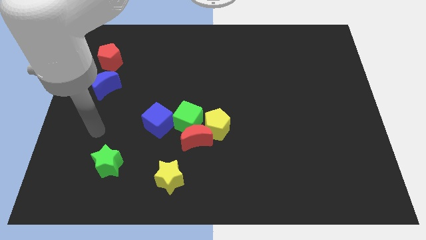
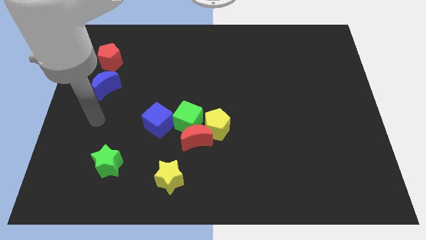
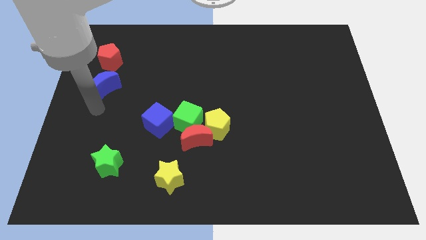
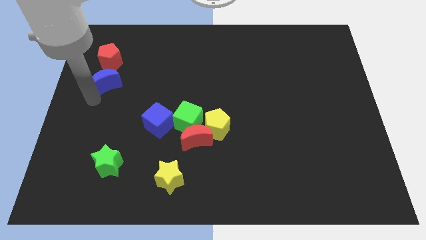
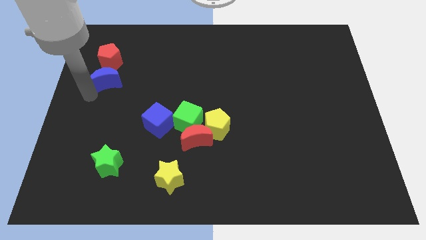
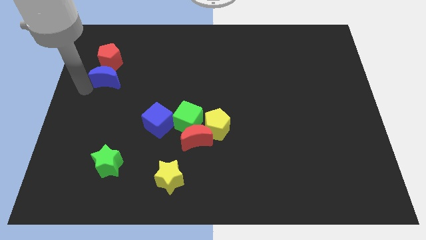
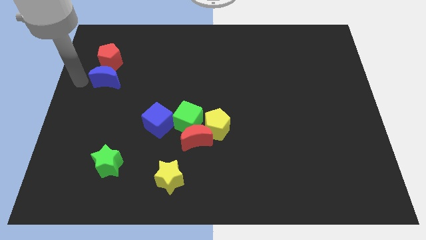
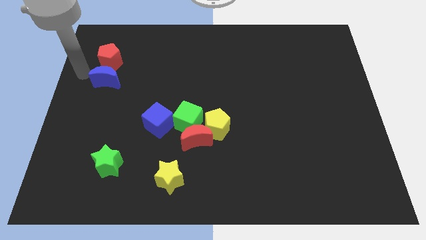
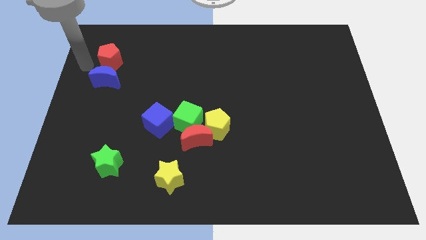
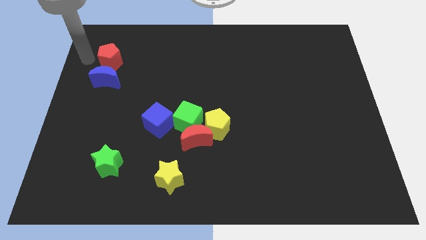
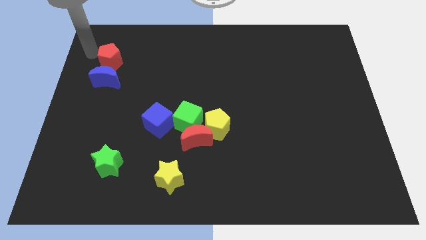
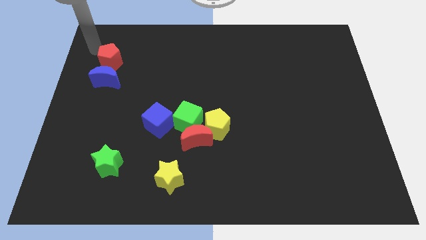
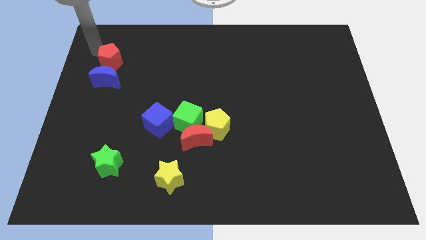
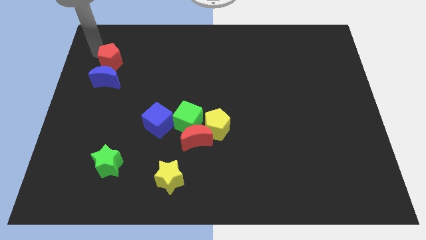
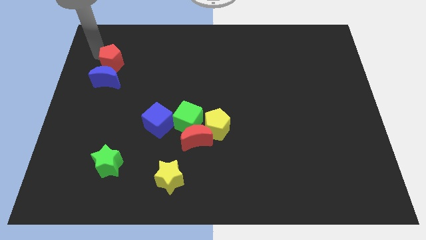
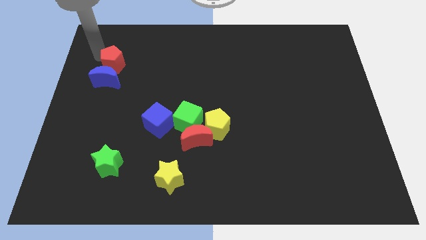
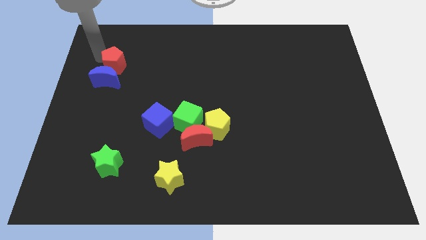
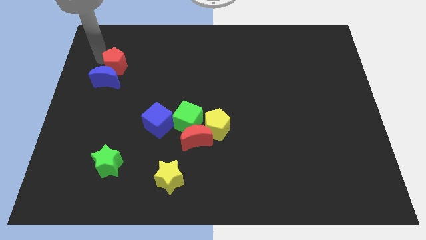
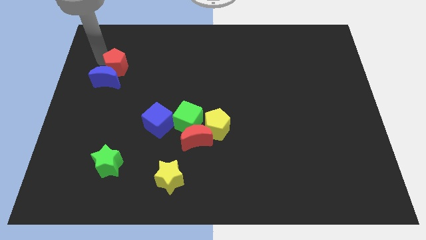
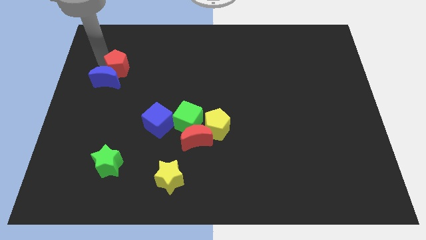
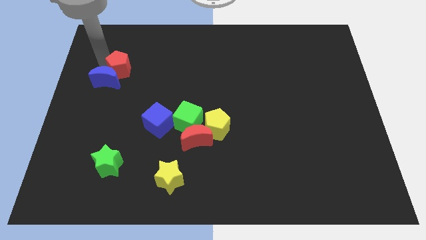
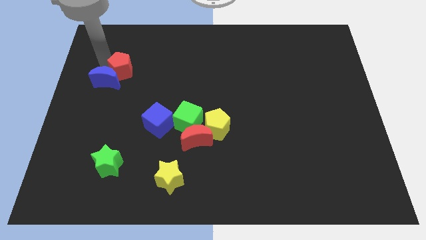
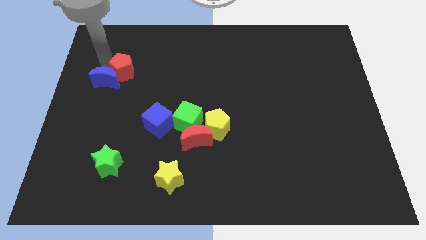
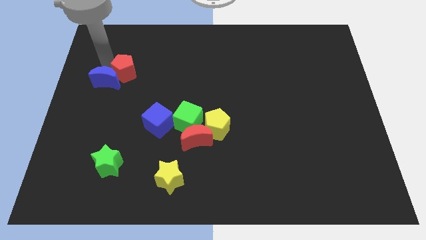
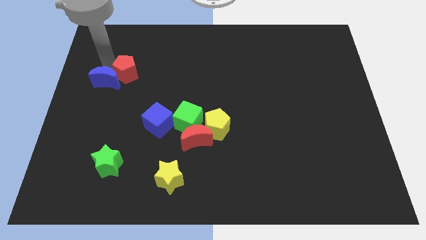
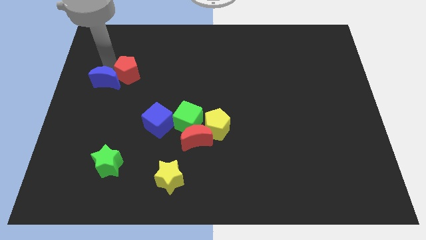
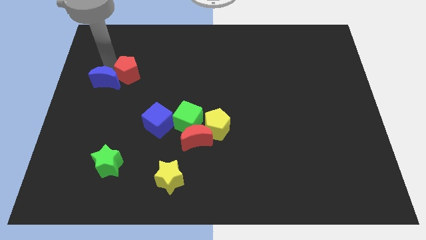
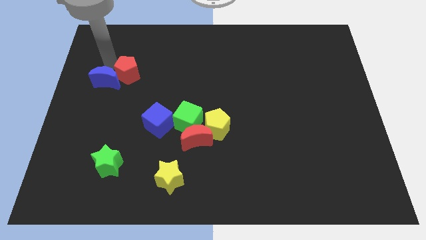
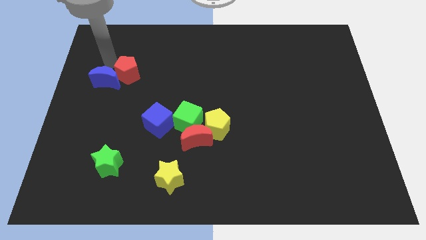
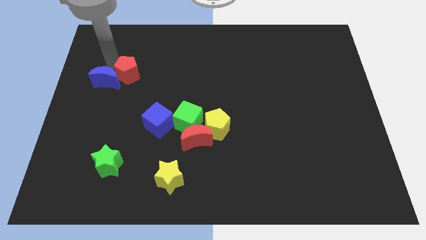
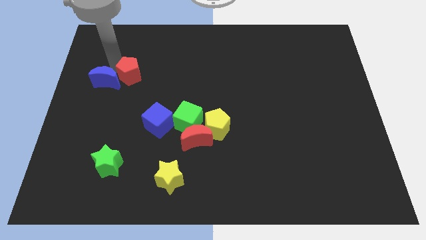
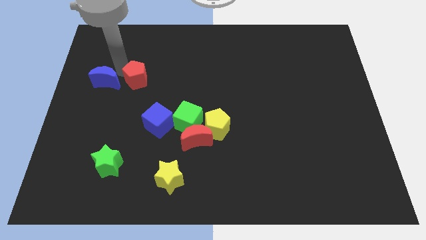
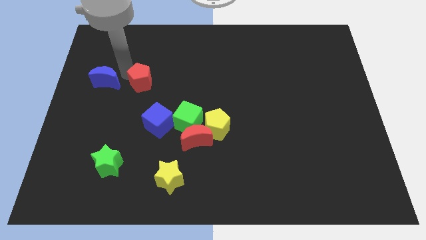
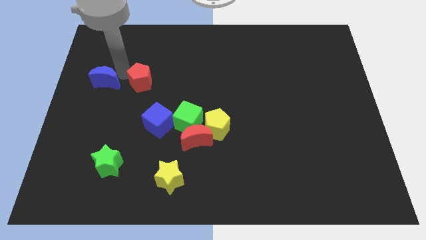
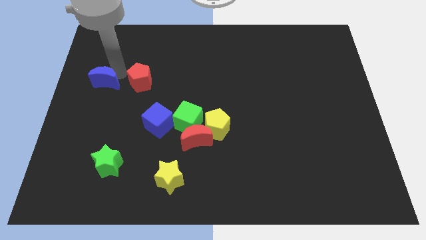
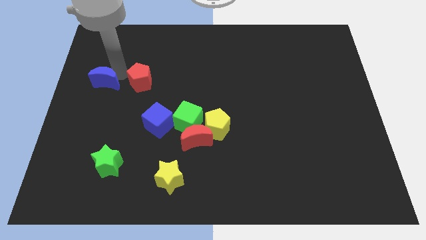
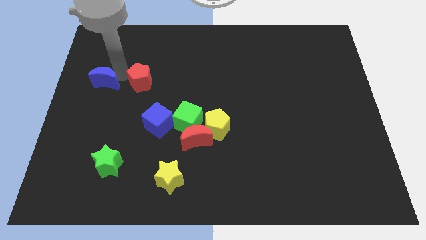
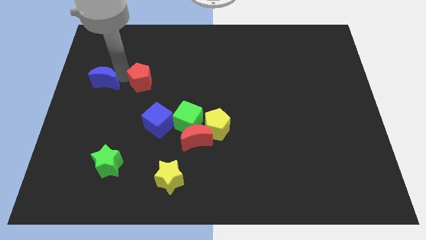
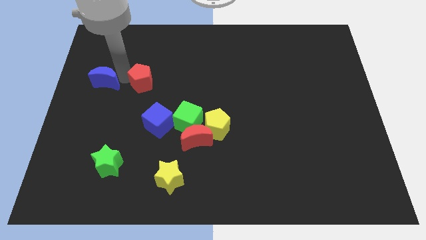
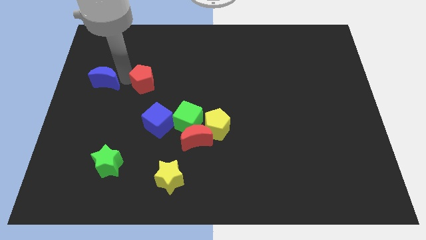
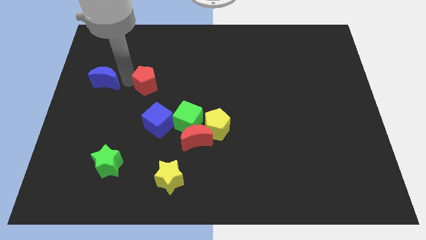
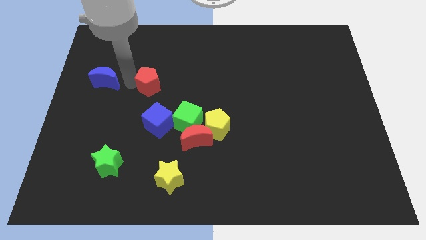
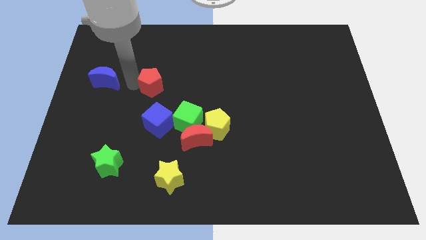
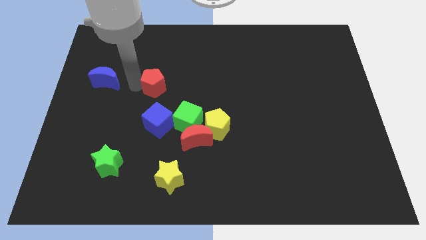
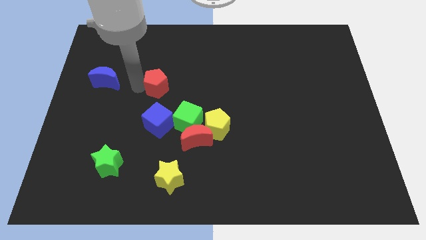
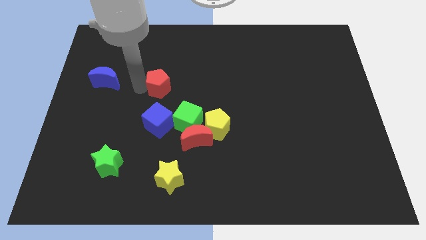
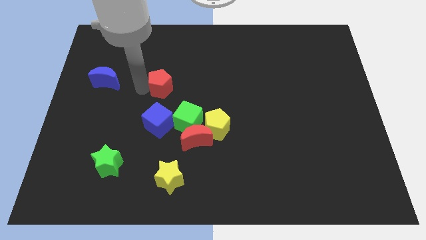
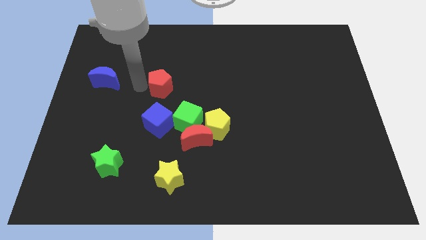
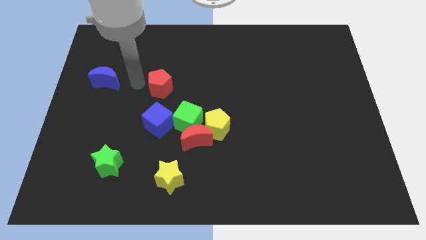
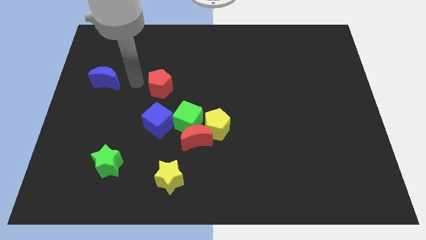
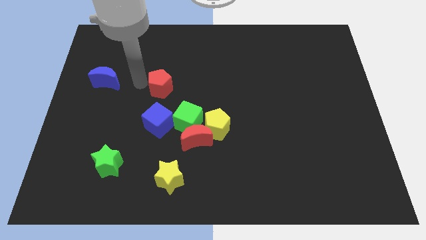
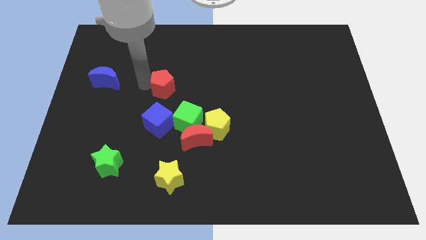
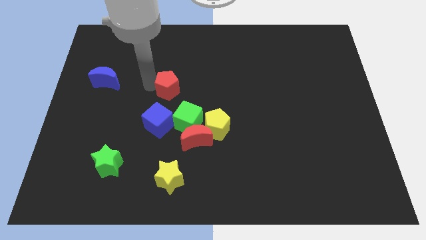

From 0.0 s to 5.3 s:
put the red pentagon to the middle of the board
